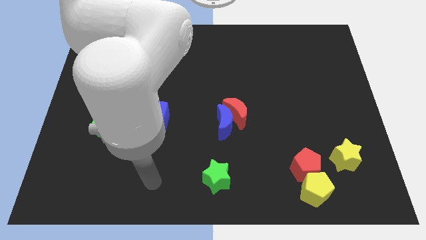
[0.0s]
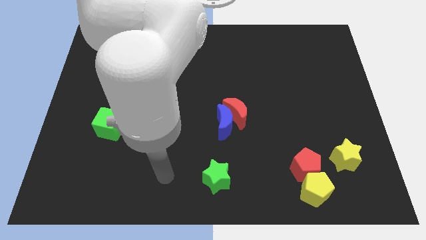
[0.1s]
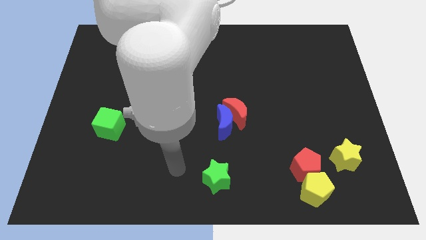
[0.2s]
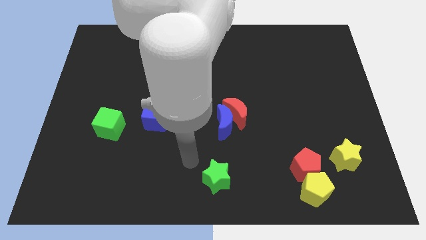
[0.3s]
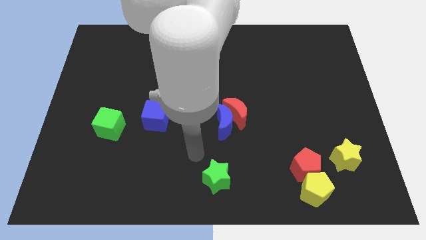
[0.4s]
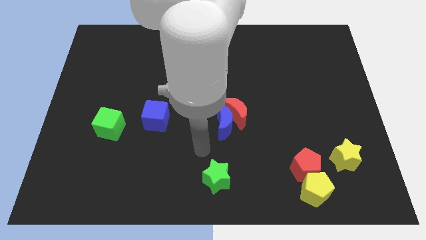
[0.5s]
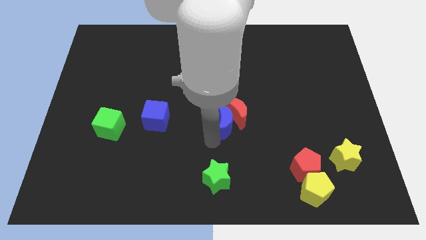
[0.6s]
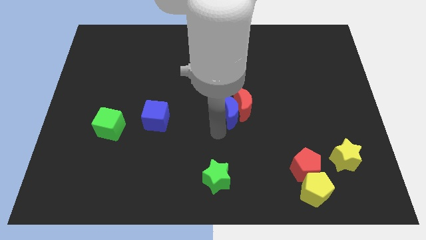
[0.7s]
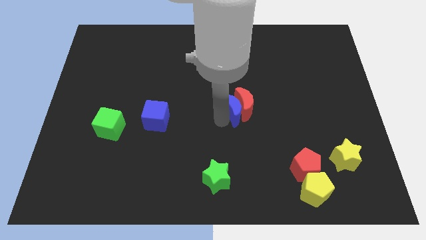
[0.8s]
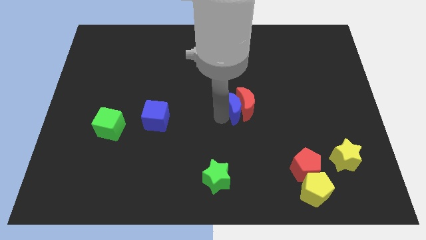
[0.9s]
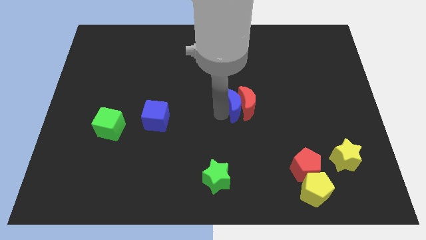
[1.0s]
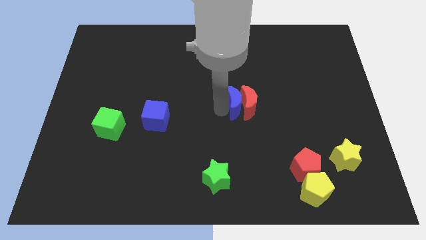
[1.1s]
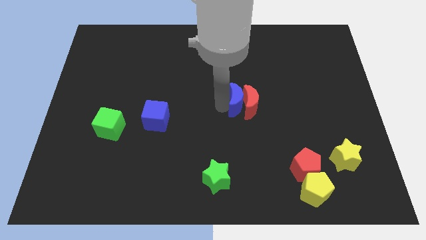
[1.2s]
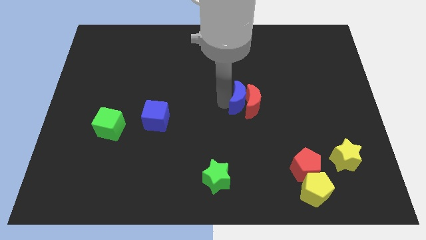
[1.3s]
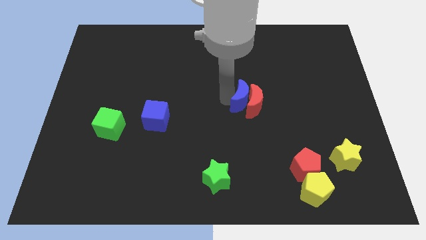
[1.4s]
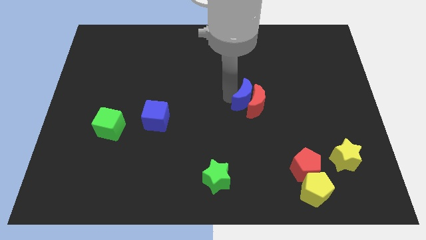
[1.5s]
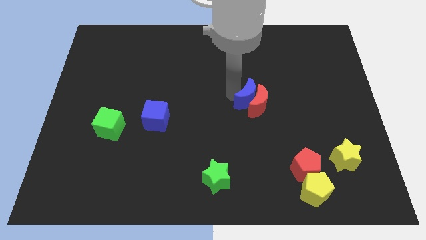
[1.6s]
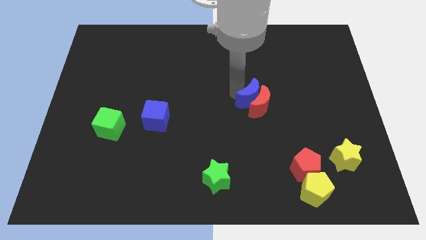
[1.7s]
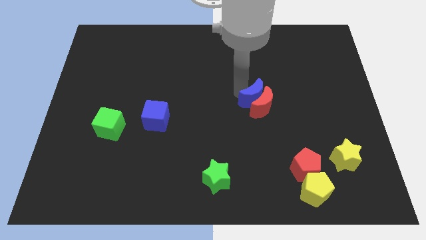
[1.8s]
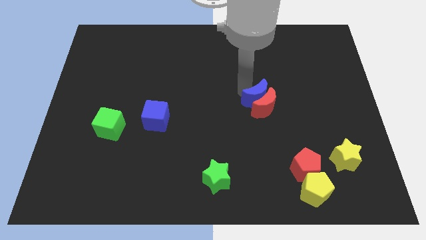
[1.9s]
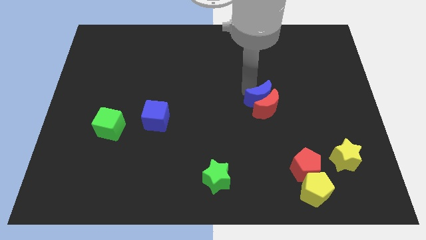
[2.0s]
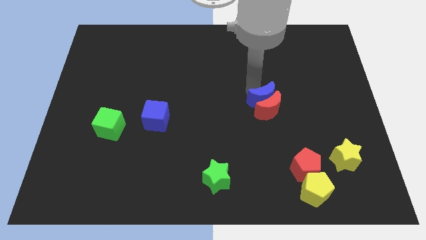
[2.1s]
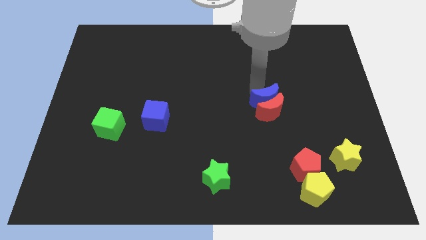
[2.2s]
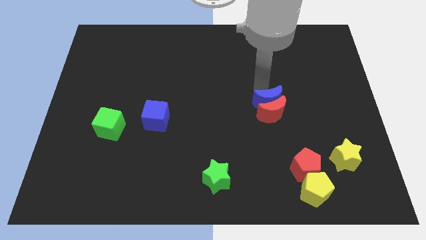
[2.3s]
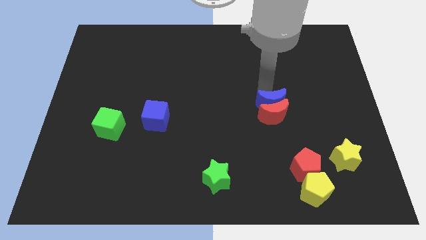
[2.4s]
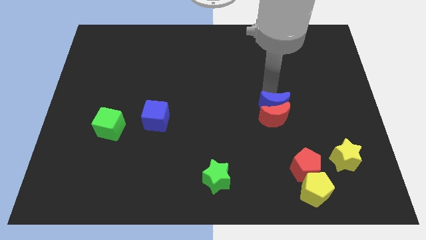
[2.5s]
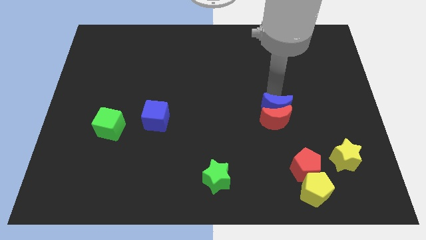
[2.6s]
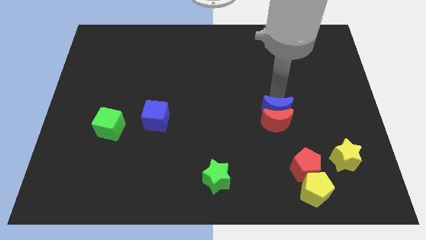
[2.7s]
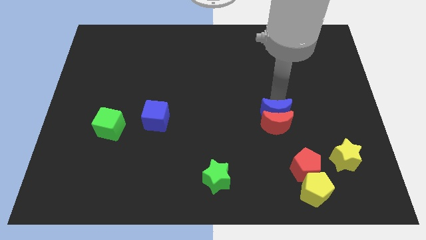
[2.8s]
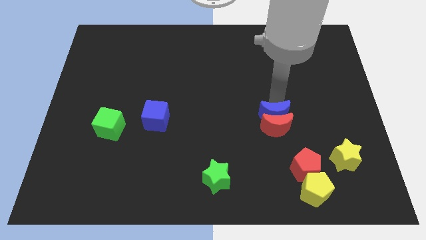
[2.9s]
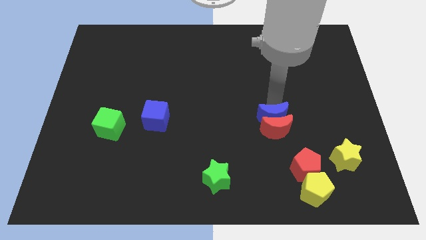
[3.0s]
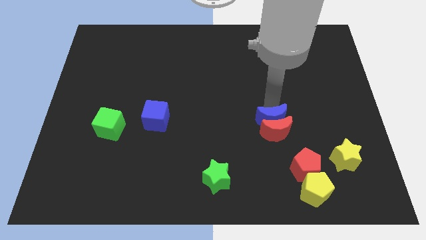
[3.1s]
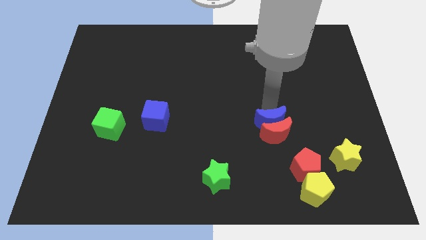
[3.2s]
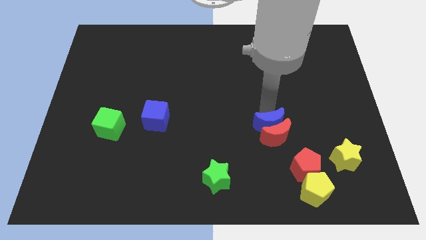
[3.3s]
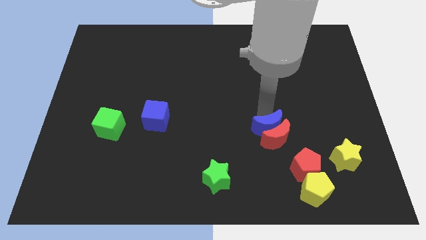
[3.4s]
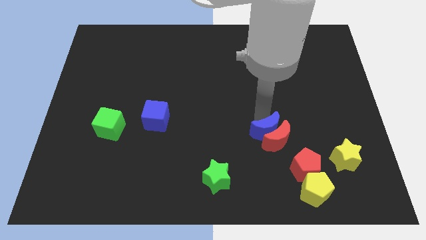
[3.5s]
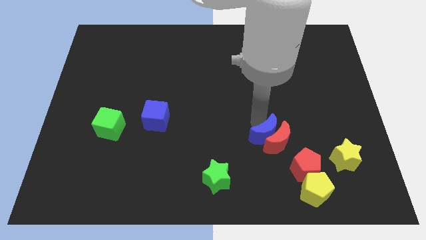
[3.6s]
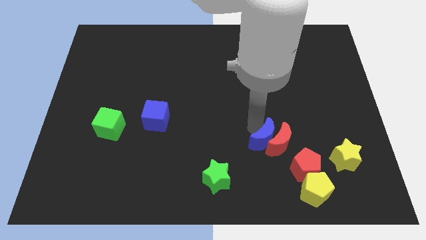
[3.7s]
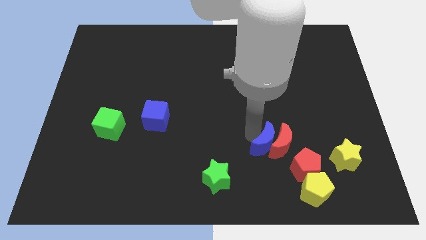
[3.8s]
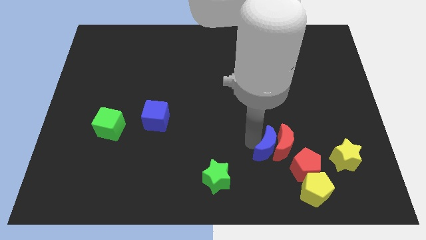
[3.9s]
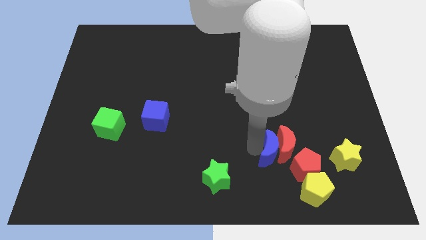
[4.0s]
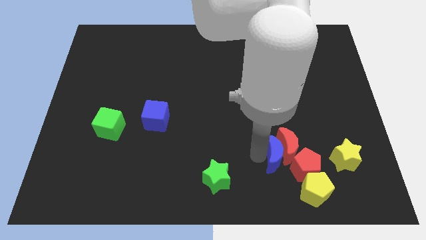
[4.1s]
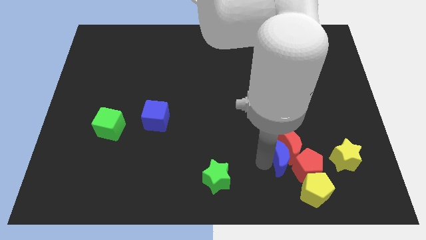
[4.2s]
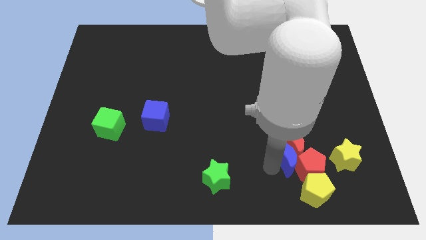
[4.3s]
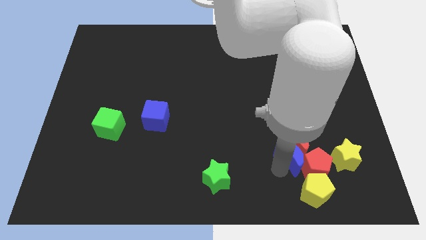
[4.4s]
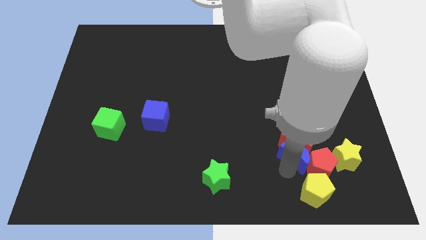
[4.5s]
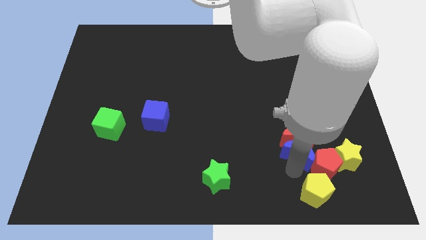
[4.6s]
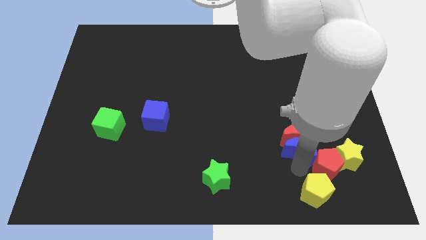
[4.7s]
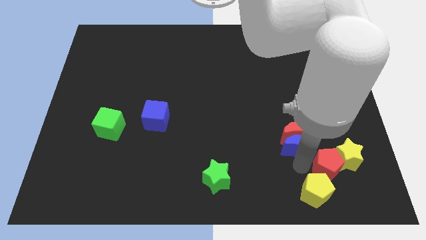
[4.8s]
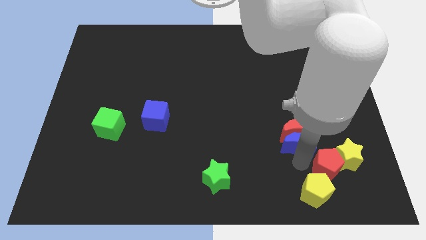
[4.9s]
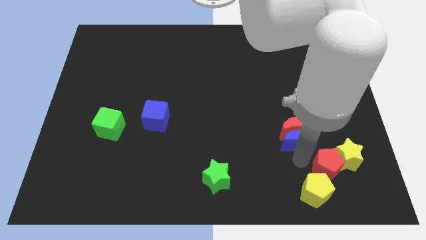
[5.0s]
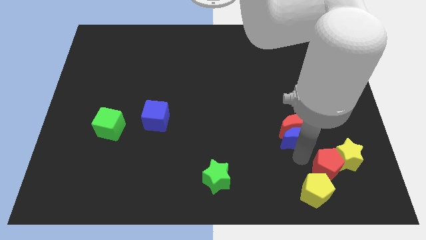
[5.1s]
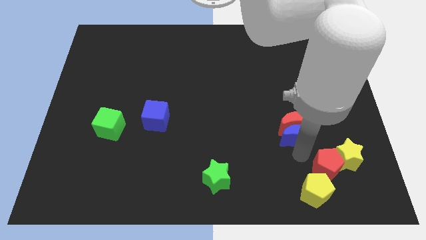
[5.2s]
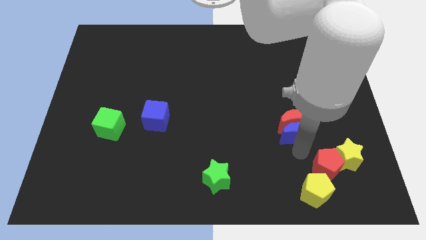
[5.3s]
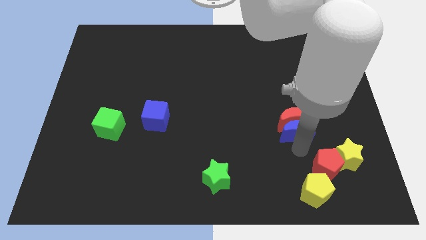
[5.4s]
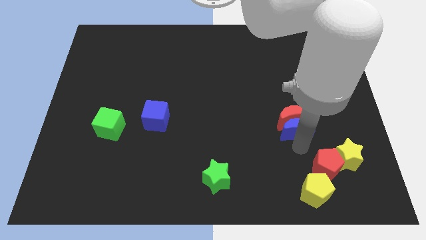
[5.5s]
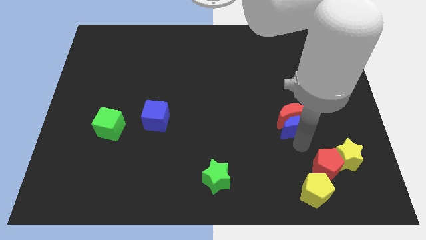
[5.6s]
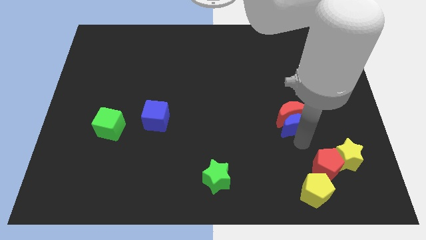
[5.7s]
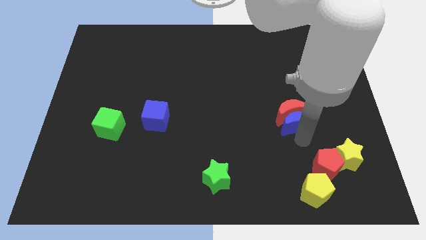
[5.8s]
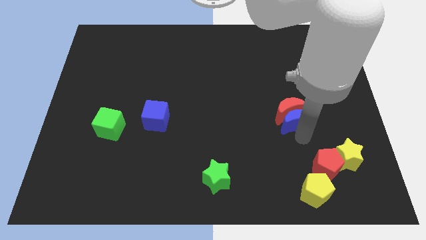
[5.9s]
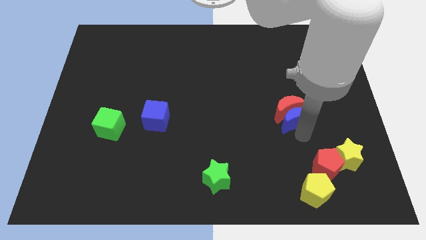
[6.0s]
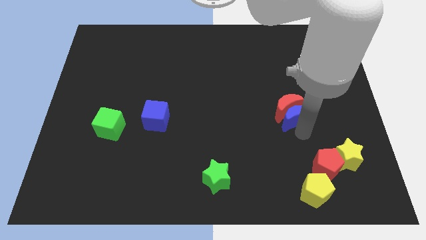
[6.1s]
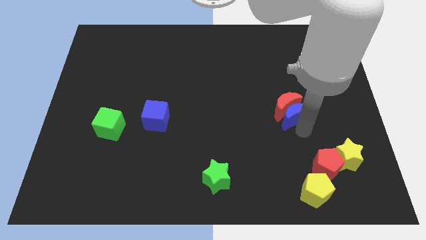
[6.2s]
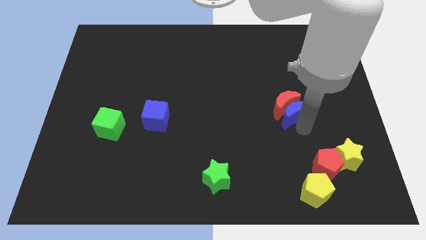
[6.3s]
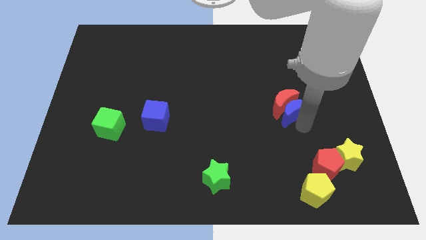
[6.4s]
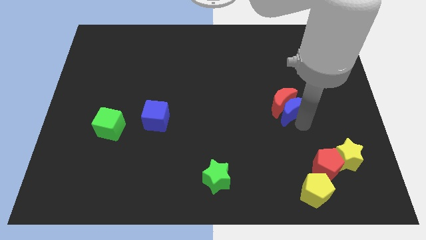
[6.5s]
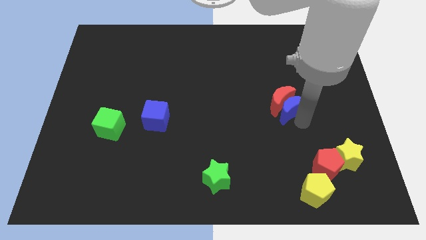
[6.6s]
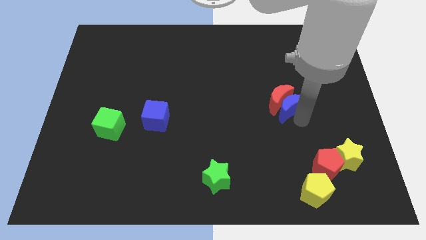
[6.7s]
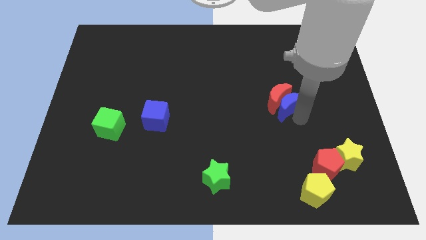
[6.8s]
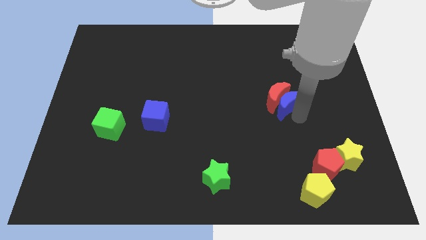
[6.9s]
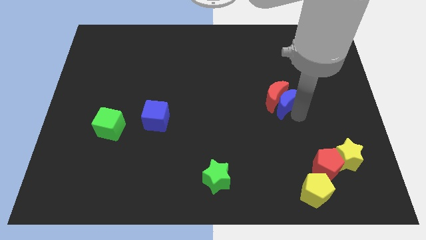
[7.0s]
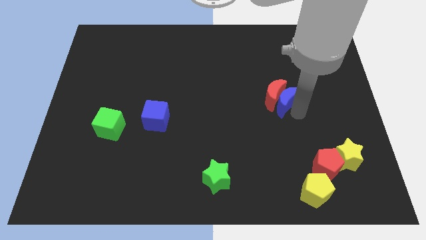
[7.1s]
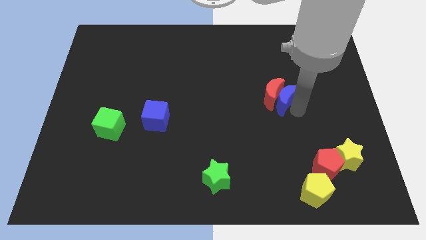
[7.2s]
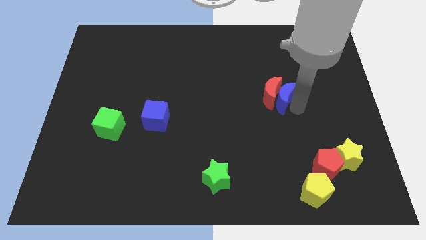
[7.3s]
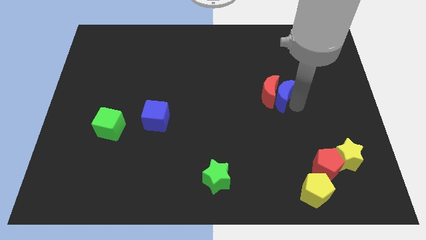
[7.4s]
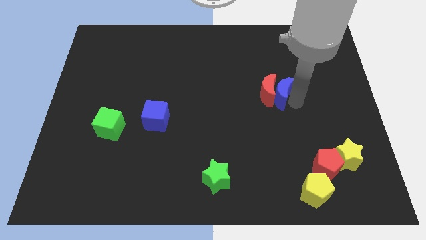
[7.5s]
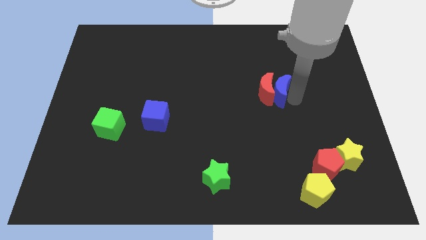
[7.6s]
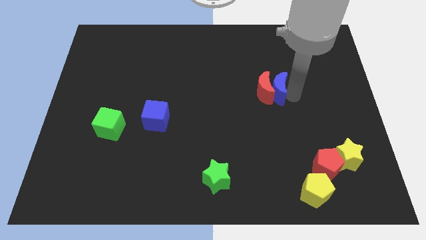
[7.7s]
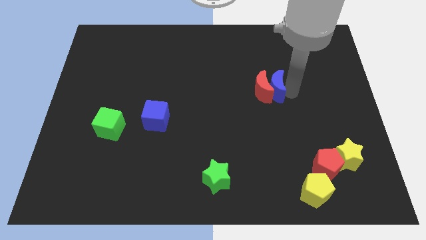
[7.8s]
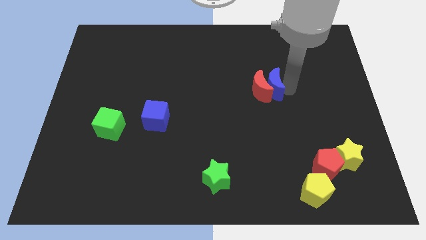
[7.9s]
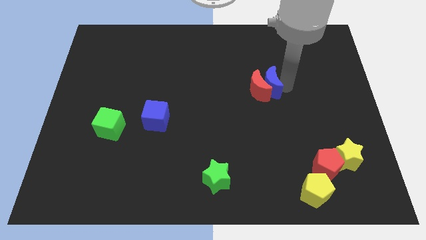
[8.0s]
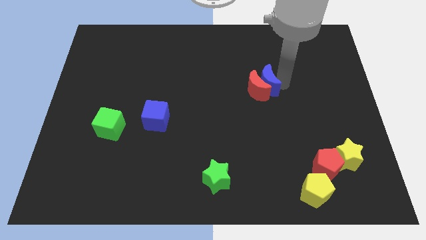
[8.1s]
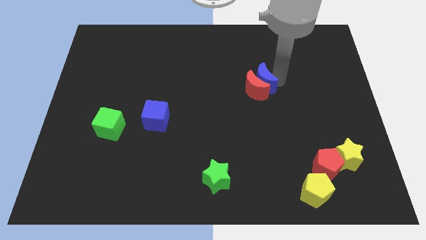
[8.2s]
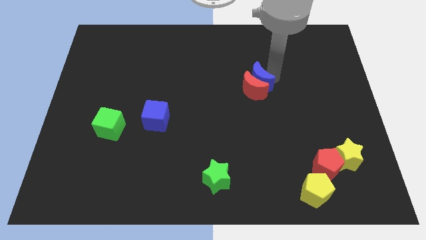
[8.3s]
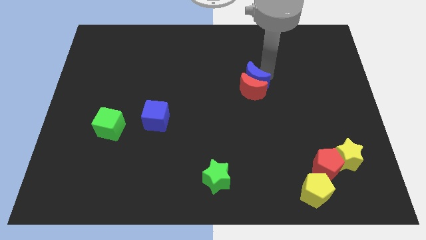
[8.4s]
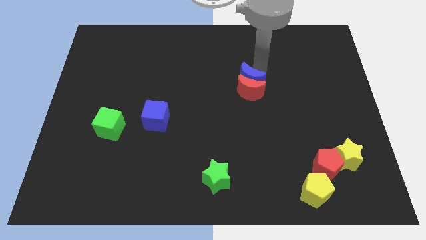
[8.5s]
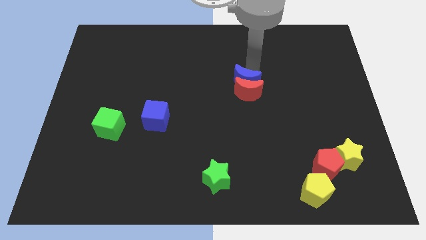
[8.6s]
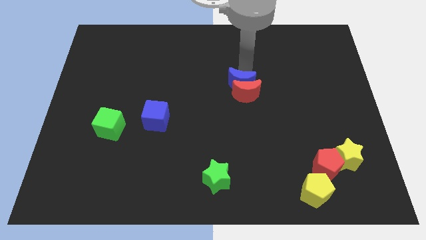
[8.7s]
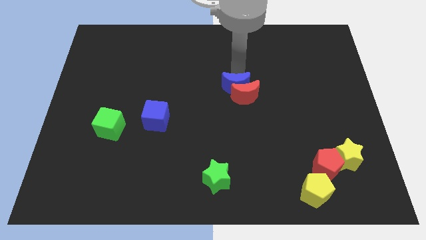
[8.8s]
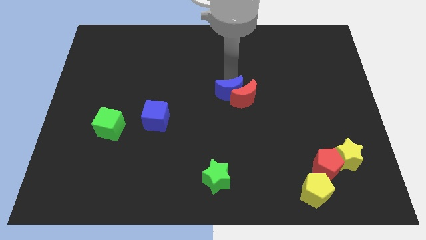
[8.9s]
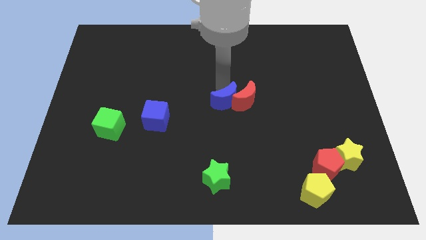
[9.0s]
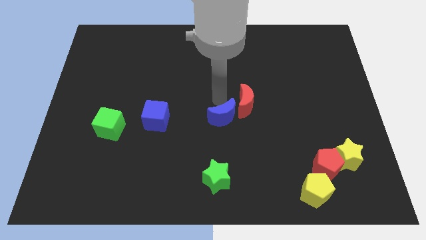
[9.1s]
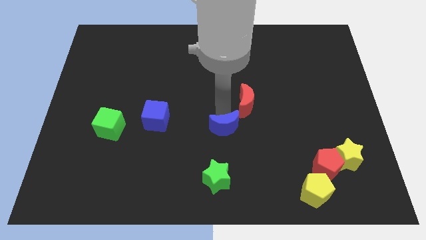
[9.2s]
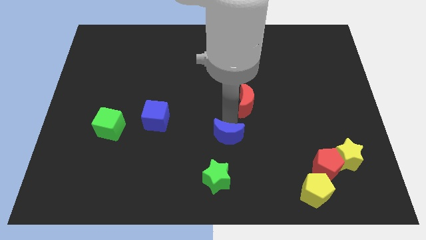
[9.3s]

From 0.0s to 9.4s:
separate the red moon from the blue moon

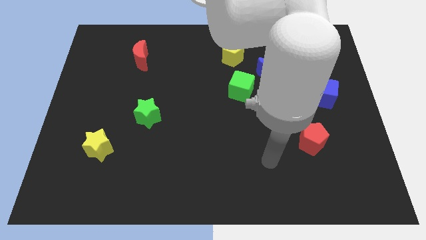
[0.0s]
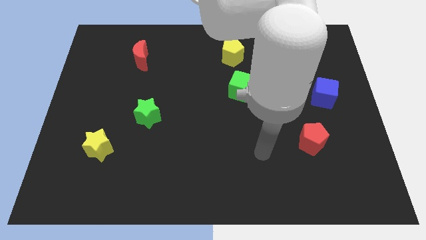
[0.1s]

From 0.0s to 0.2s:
move the blue moon away from the green cube
